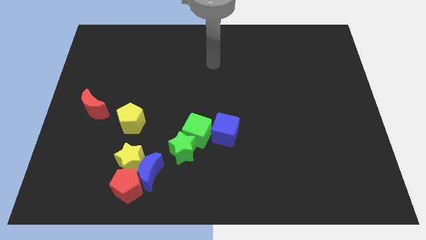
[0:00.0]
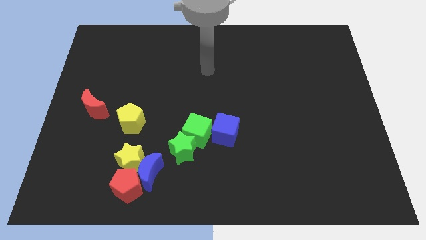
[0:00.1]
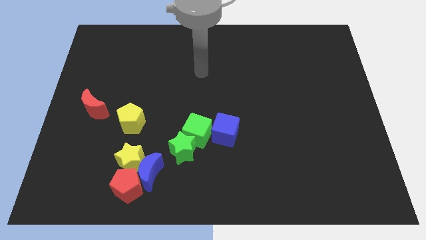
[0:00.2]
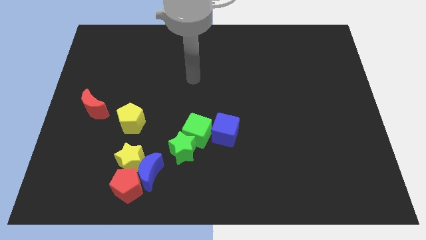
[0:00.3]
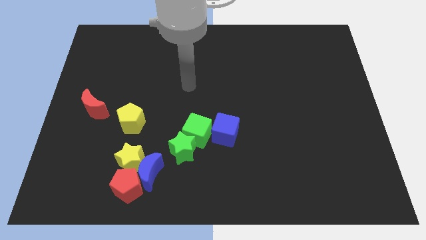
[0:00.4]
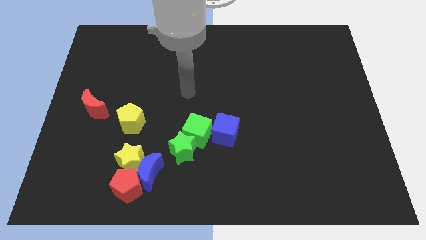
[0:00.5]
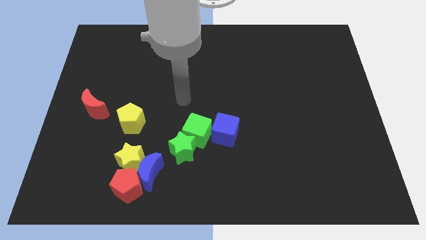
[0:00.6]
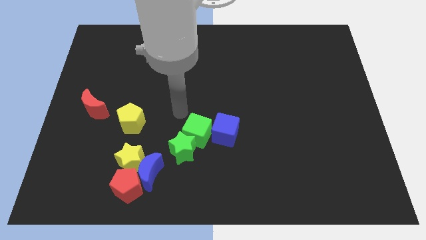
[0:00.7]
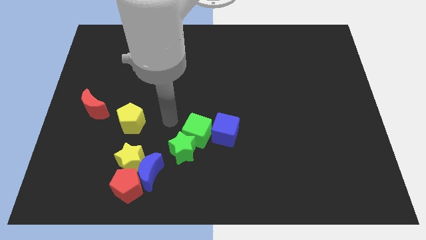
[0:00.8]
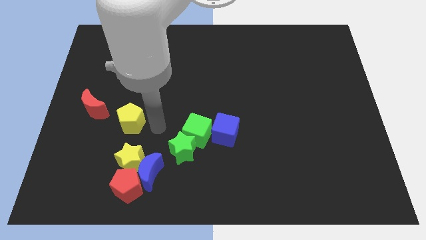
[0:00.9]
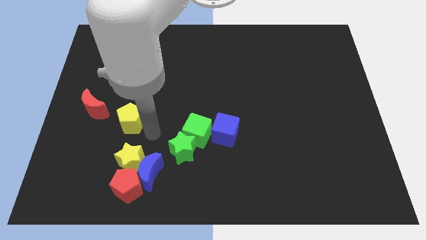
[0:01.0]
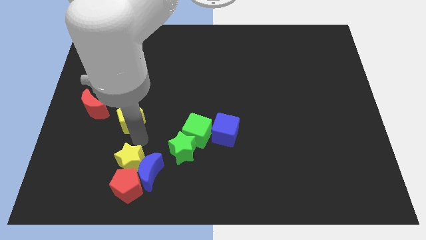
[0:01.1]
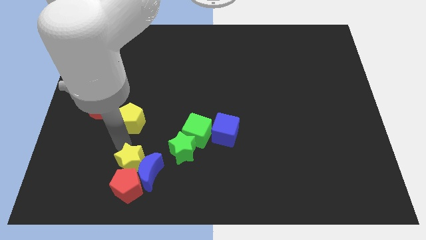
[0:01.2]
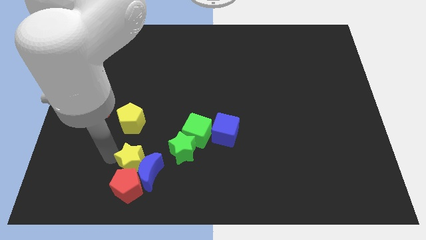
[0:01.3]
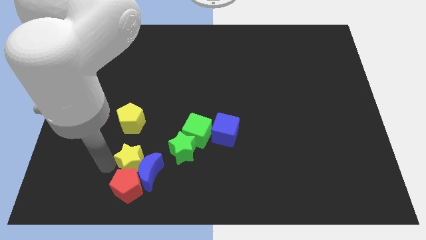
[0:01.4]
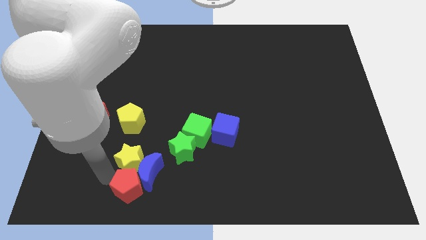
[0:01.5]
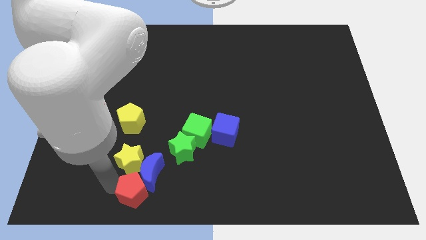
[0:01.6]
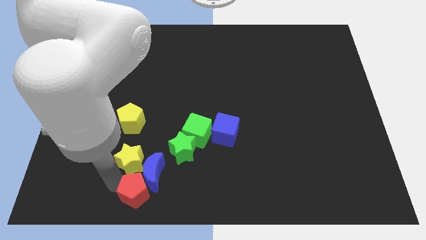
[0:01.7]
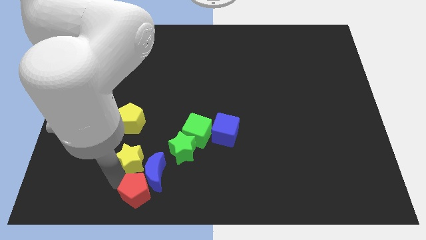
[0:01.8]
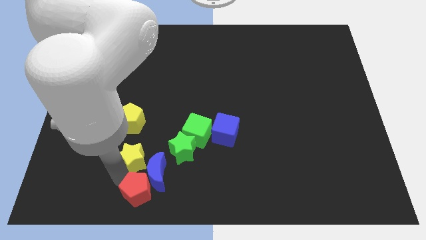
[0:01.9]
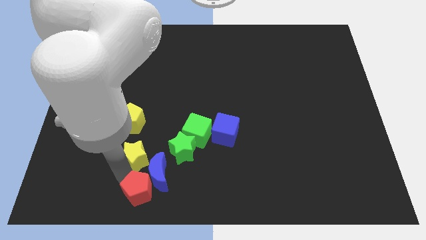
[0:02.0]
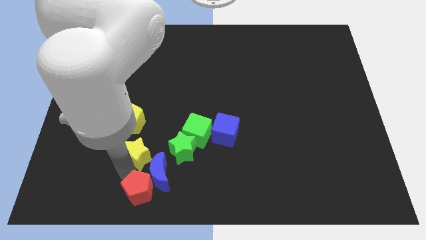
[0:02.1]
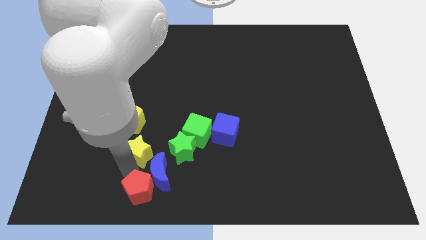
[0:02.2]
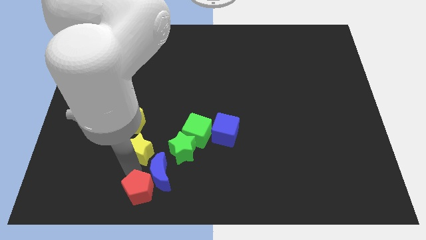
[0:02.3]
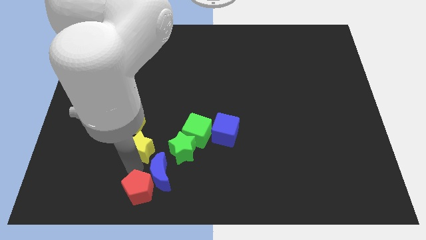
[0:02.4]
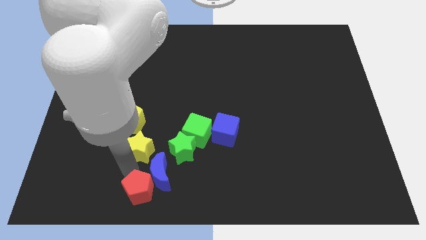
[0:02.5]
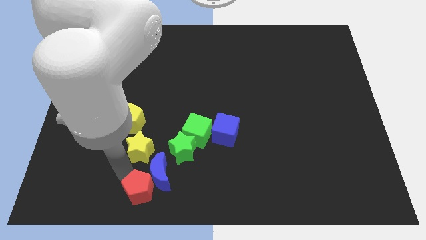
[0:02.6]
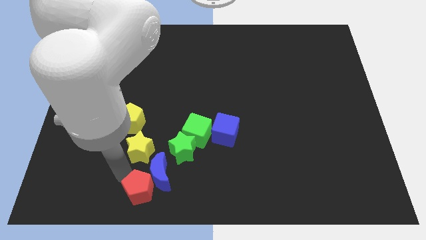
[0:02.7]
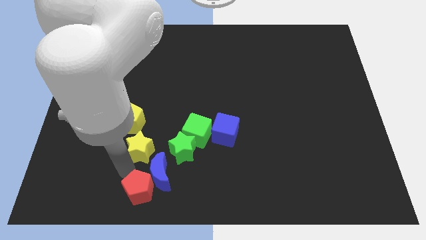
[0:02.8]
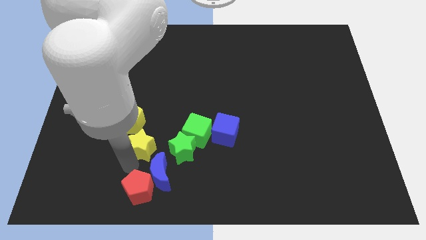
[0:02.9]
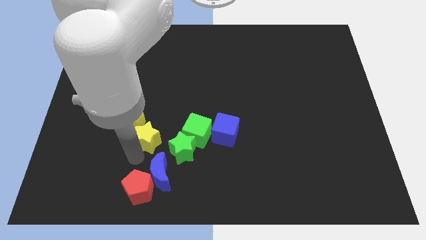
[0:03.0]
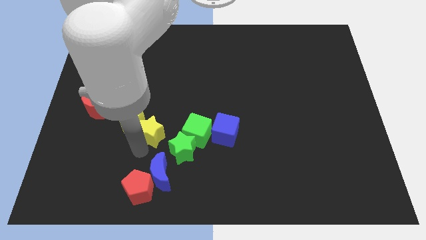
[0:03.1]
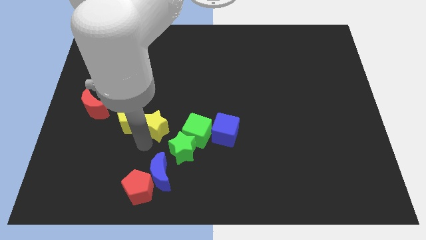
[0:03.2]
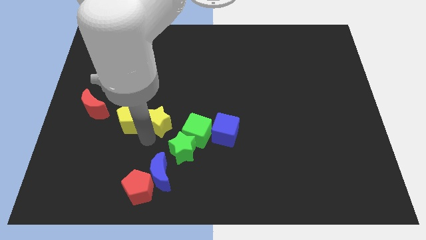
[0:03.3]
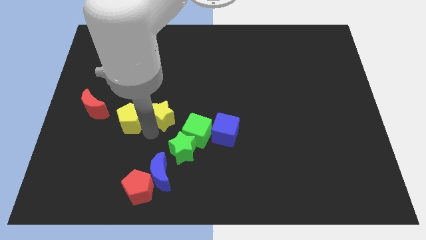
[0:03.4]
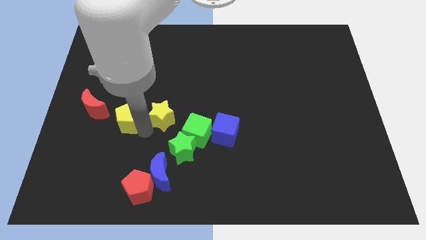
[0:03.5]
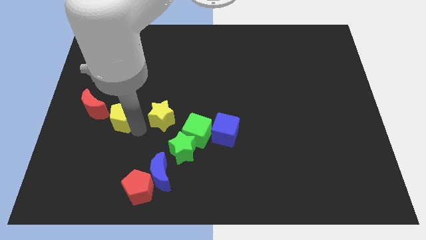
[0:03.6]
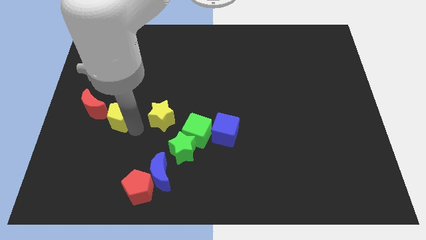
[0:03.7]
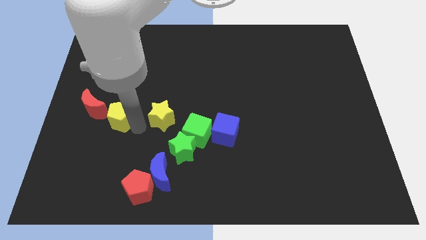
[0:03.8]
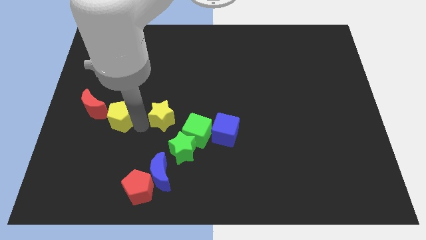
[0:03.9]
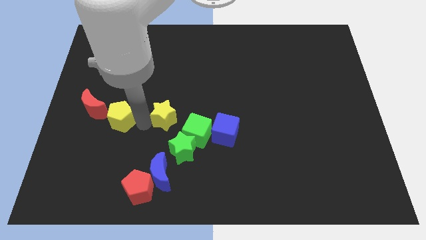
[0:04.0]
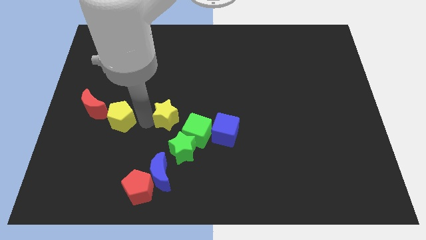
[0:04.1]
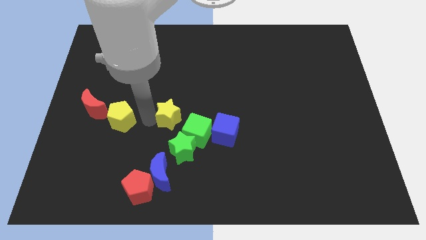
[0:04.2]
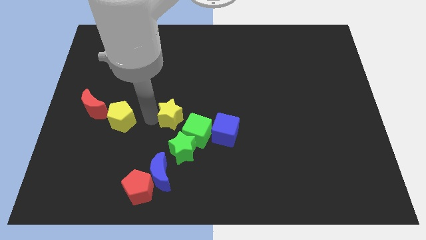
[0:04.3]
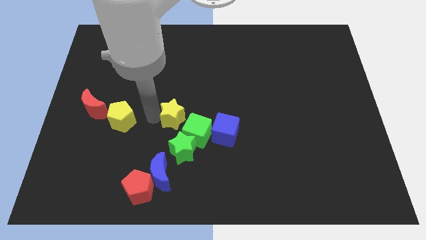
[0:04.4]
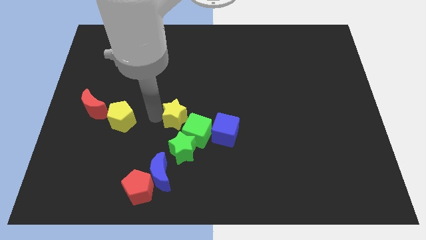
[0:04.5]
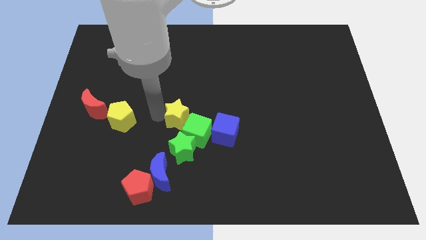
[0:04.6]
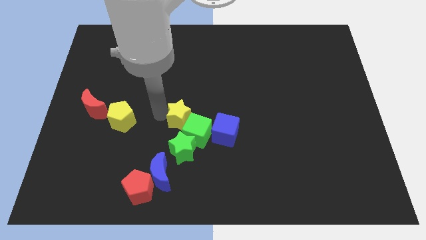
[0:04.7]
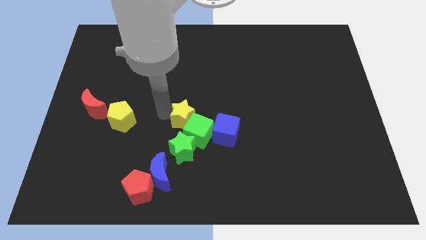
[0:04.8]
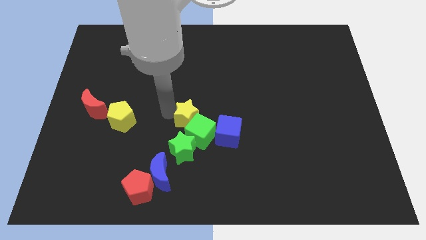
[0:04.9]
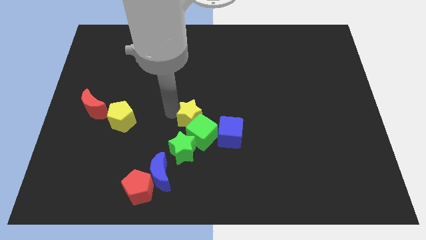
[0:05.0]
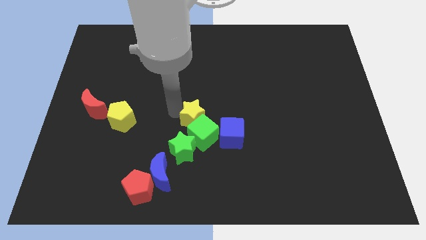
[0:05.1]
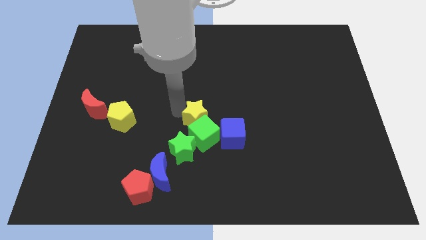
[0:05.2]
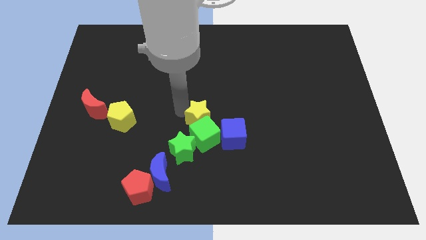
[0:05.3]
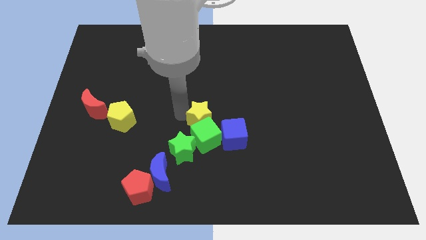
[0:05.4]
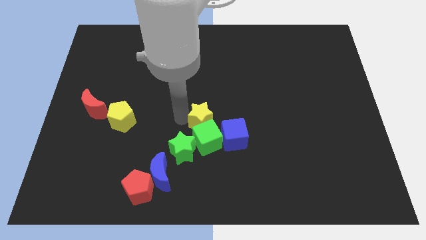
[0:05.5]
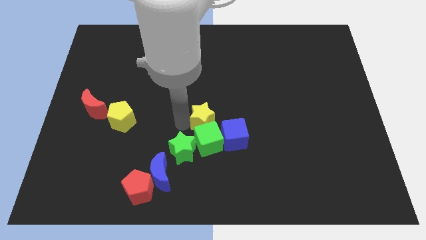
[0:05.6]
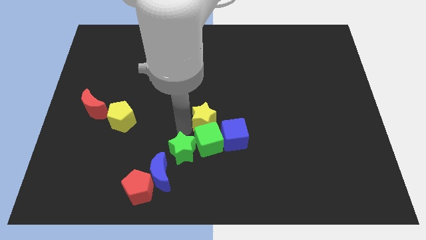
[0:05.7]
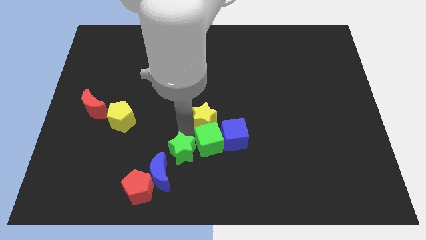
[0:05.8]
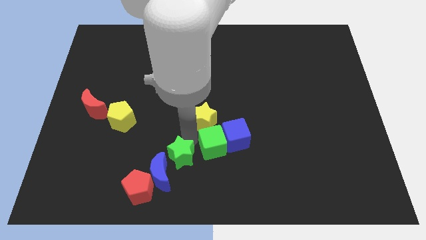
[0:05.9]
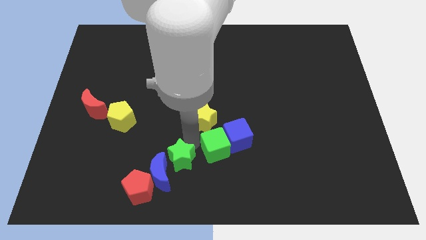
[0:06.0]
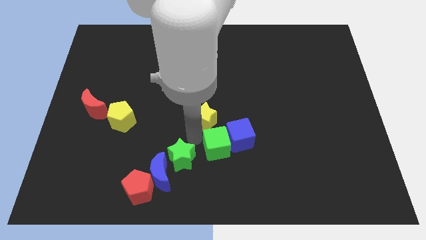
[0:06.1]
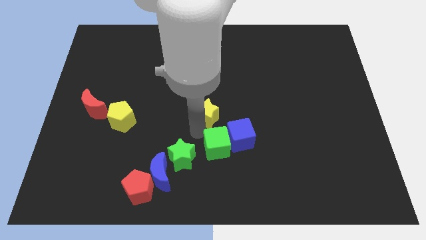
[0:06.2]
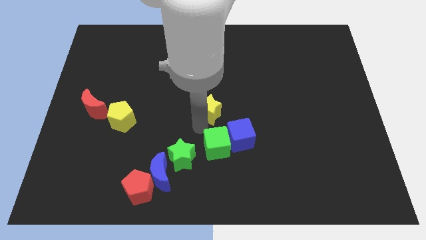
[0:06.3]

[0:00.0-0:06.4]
move the yellow star diagonally upwards and to the right

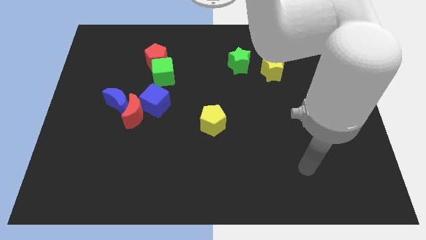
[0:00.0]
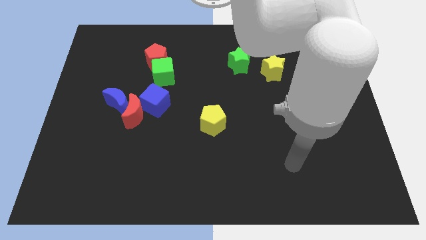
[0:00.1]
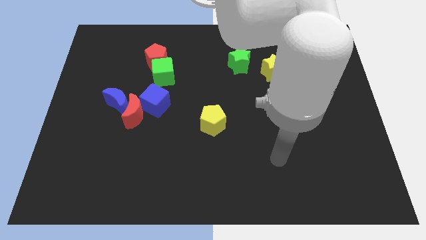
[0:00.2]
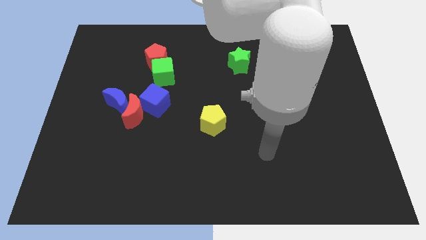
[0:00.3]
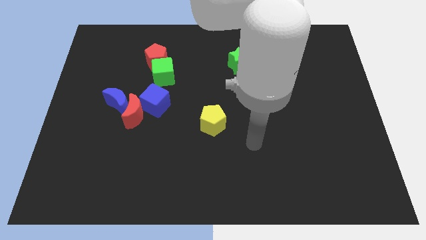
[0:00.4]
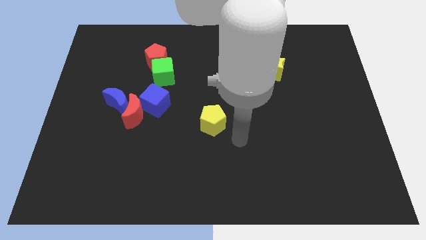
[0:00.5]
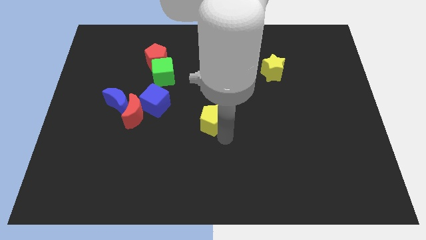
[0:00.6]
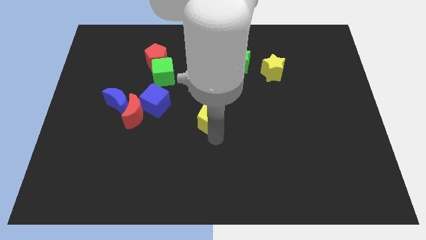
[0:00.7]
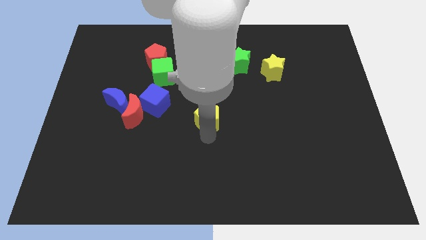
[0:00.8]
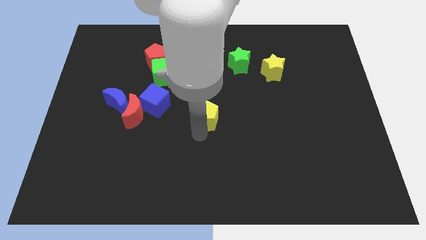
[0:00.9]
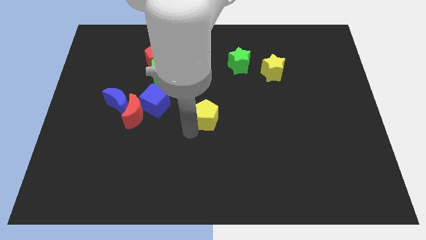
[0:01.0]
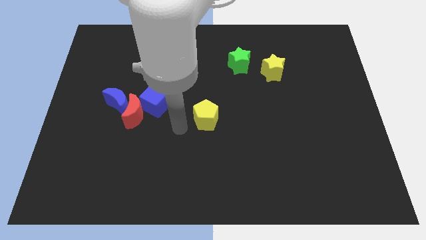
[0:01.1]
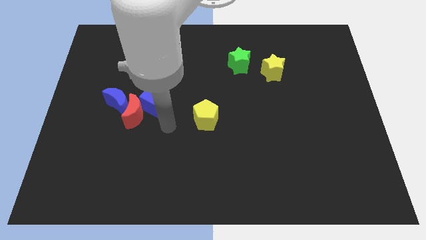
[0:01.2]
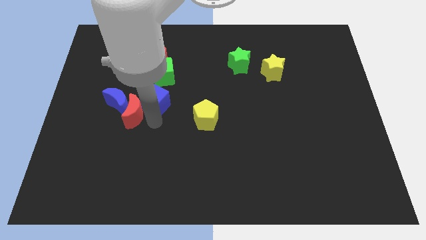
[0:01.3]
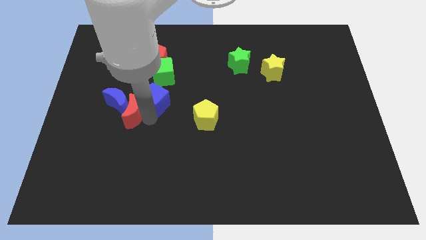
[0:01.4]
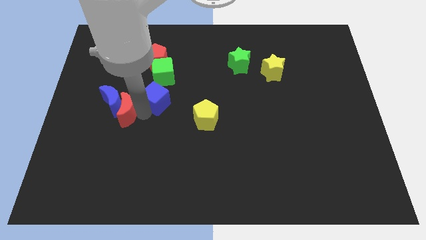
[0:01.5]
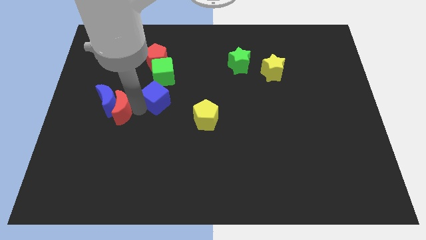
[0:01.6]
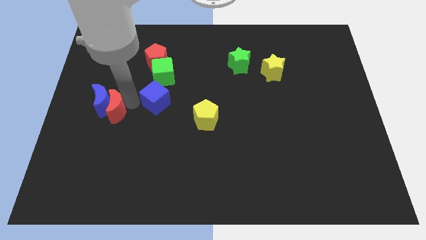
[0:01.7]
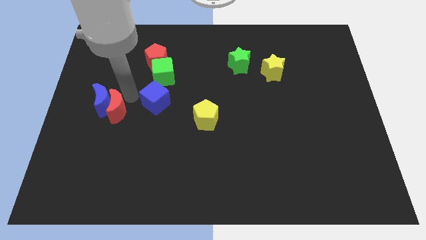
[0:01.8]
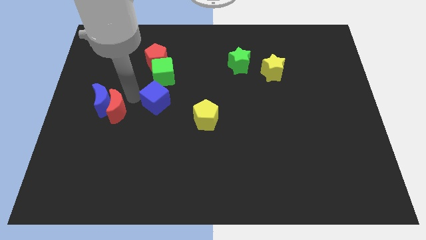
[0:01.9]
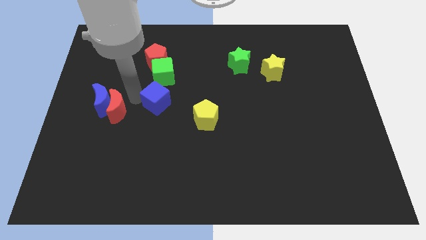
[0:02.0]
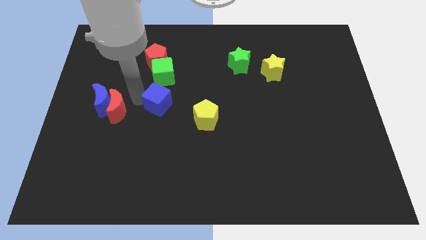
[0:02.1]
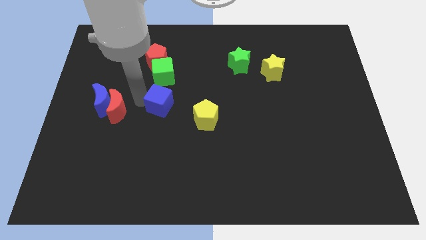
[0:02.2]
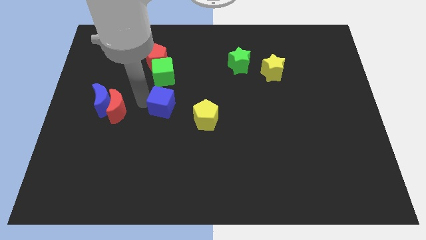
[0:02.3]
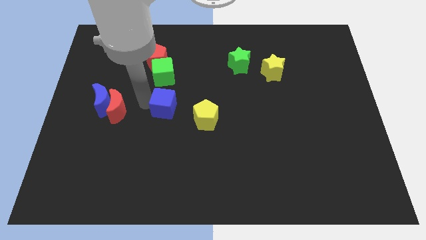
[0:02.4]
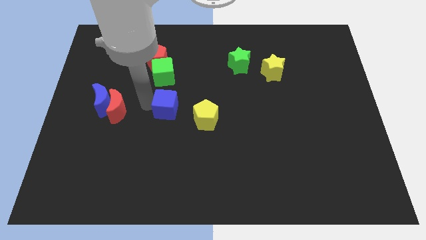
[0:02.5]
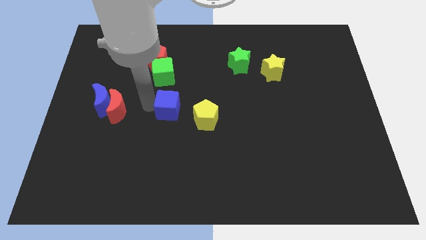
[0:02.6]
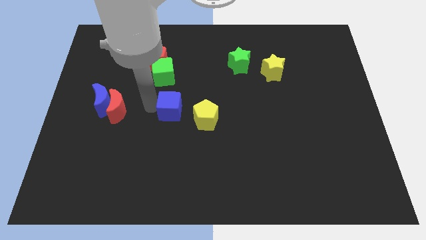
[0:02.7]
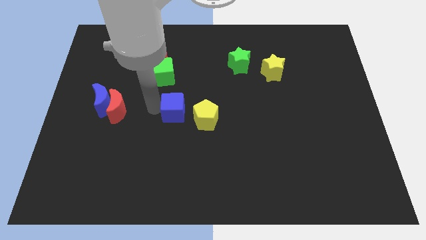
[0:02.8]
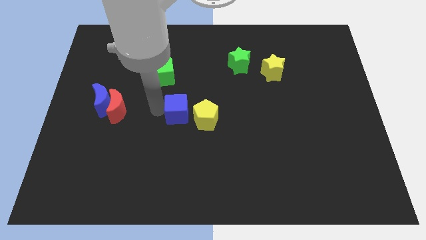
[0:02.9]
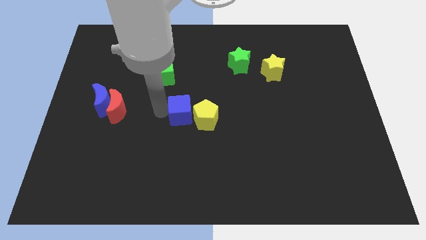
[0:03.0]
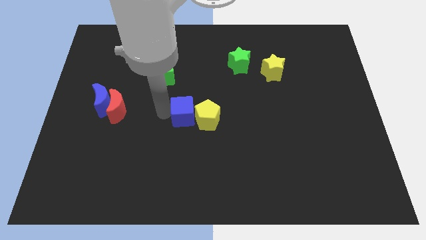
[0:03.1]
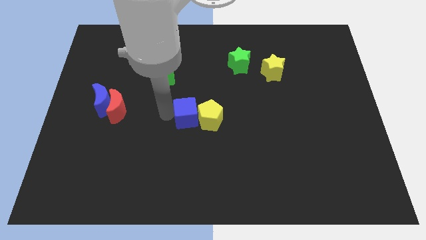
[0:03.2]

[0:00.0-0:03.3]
push the blue cube to the right a little
